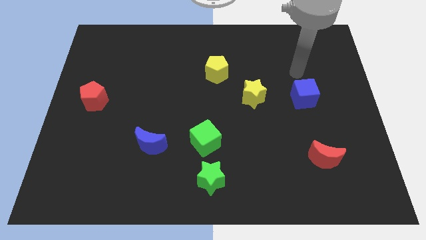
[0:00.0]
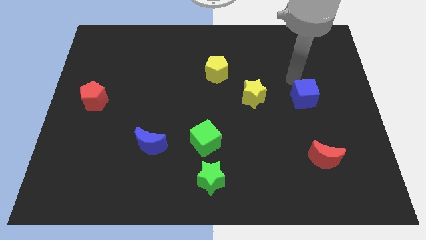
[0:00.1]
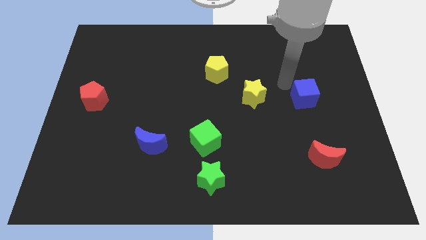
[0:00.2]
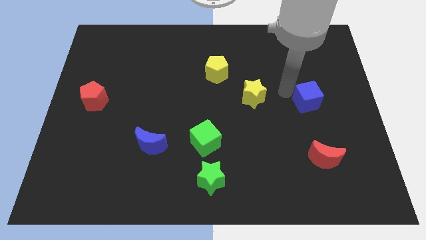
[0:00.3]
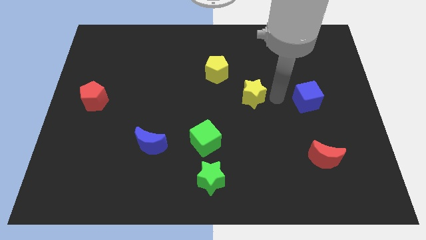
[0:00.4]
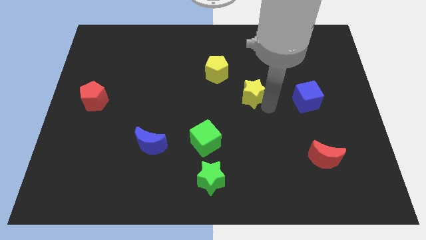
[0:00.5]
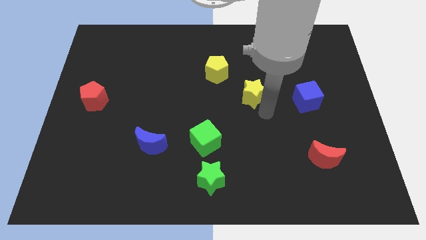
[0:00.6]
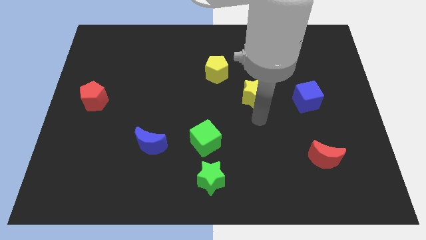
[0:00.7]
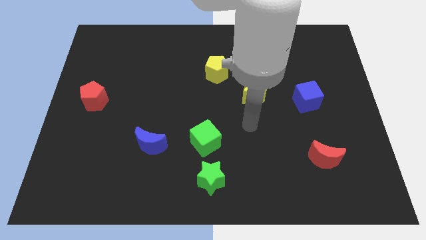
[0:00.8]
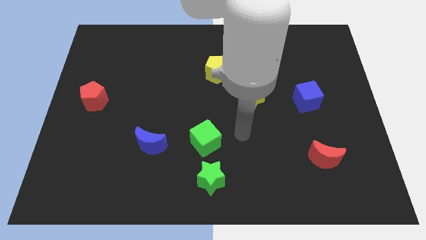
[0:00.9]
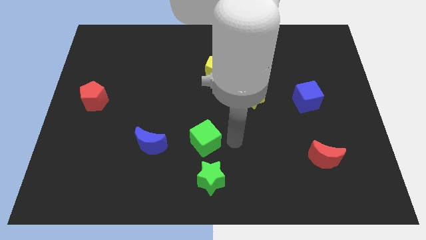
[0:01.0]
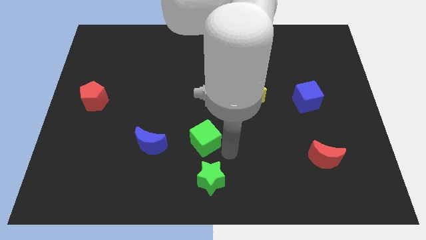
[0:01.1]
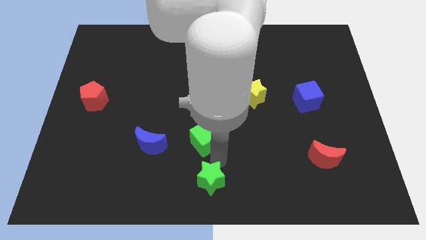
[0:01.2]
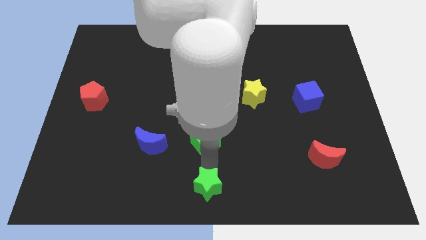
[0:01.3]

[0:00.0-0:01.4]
move the green cube away from the green star

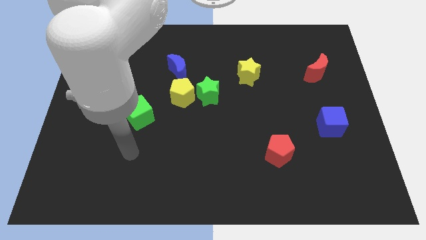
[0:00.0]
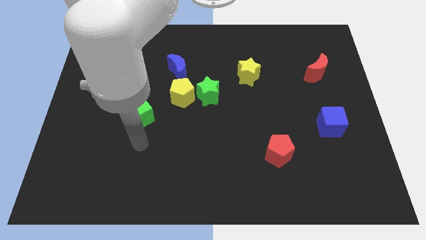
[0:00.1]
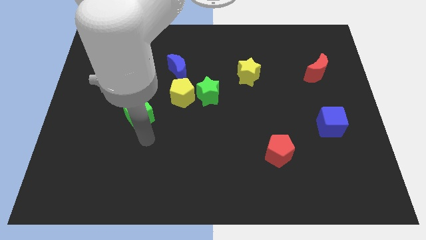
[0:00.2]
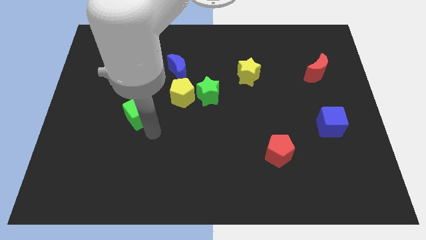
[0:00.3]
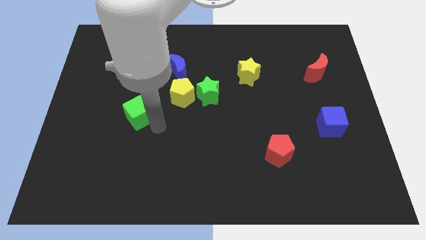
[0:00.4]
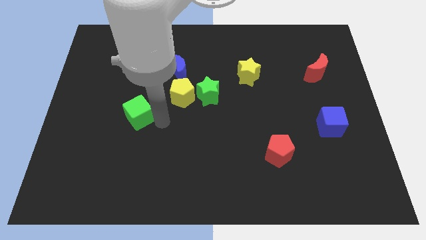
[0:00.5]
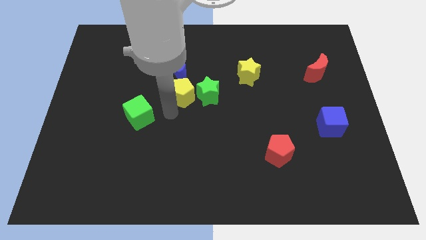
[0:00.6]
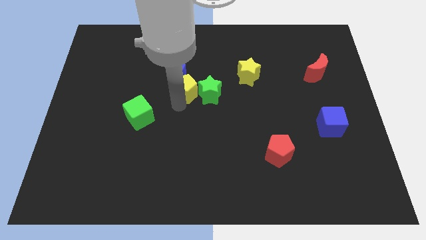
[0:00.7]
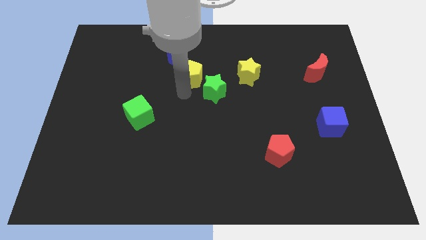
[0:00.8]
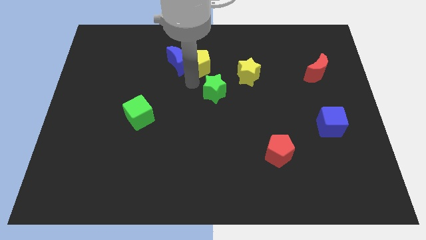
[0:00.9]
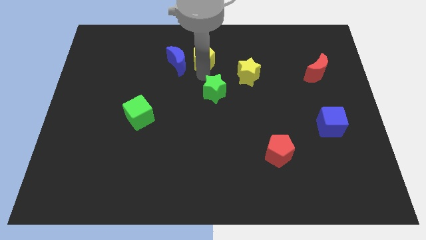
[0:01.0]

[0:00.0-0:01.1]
move the green star away from the yellow pentagon

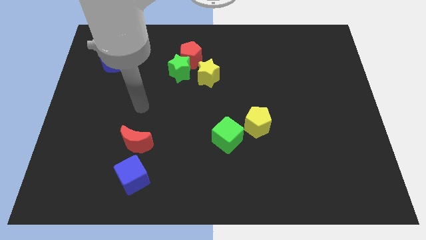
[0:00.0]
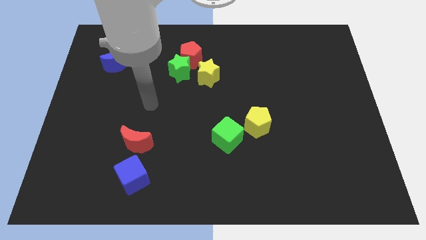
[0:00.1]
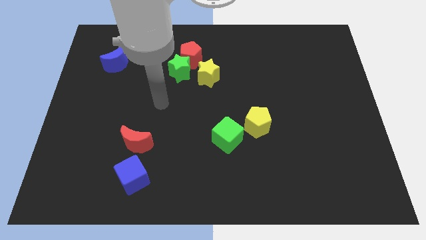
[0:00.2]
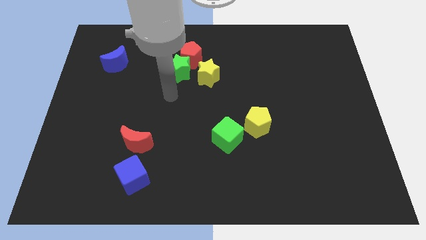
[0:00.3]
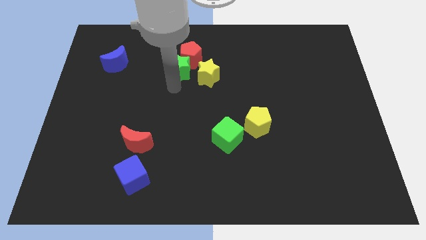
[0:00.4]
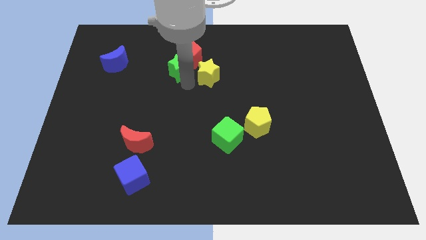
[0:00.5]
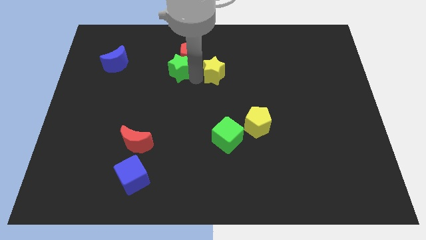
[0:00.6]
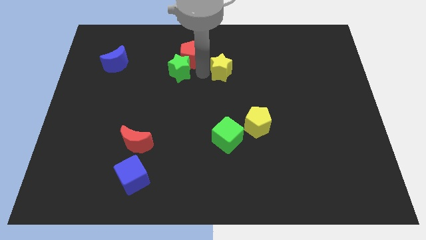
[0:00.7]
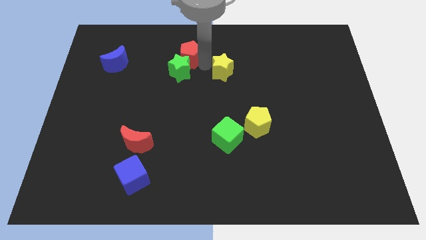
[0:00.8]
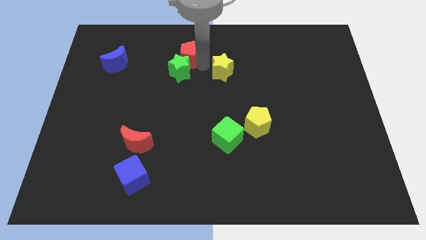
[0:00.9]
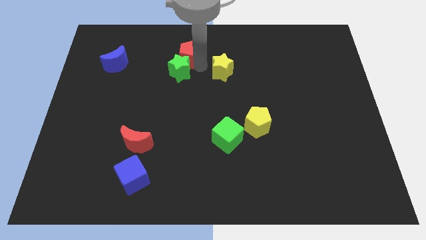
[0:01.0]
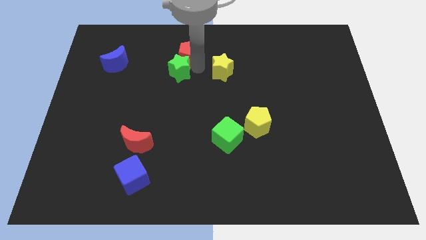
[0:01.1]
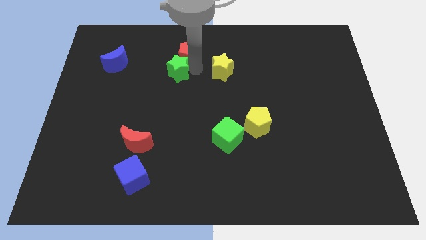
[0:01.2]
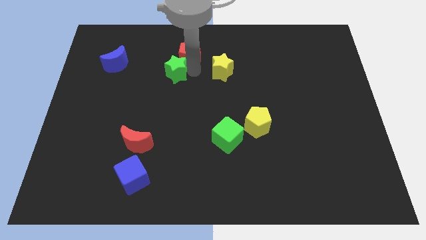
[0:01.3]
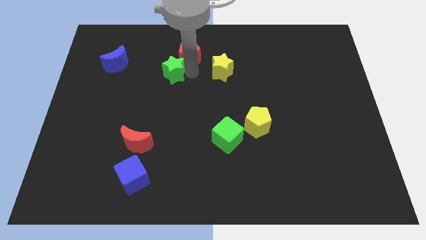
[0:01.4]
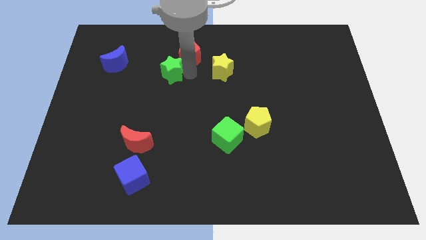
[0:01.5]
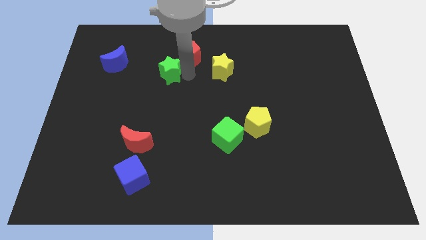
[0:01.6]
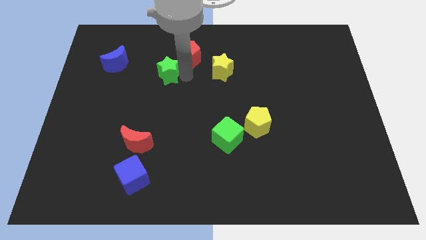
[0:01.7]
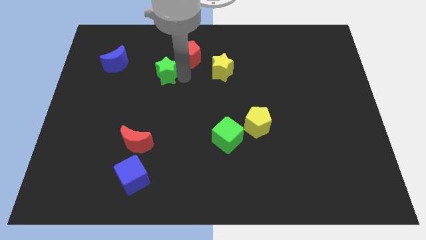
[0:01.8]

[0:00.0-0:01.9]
move the green star away from the red pentagon and yellow star

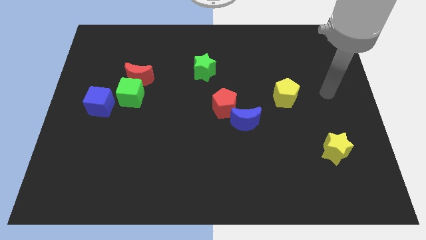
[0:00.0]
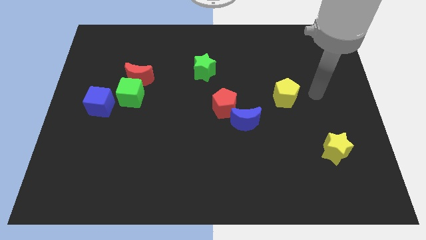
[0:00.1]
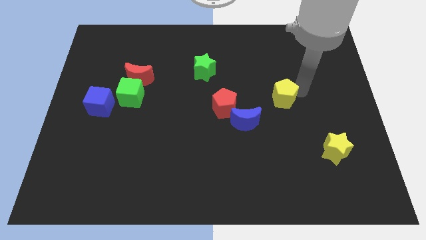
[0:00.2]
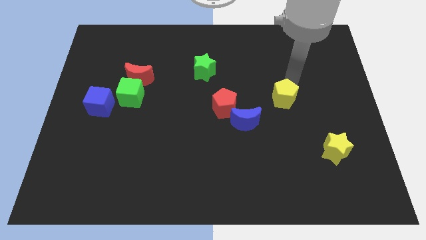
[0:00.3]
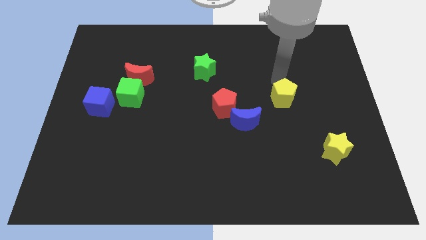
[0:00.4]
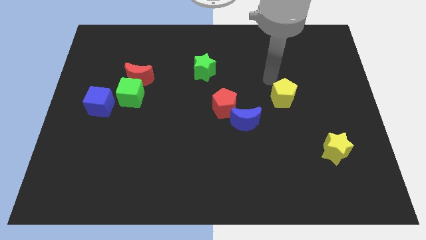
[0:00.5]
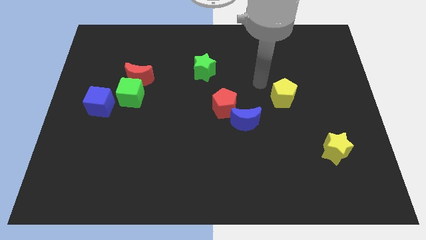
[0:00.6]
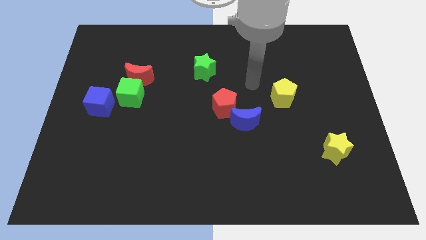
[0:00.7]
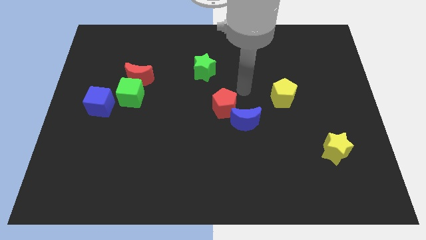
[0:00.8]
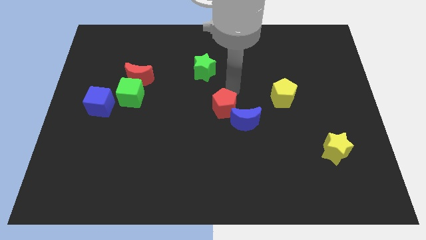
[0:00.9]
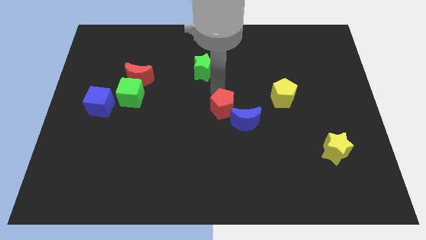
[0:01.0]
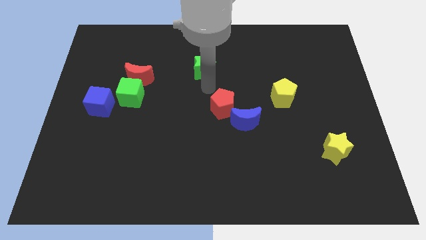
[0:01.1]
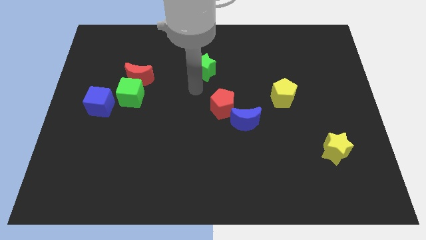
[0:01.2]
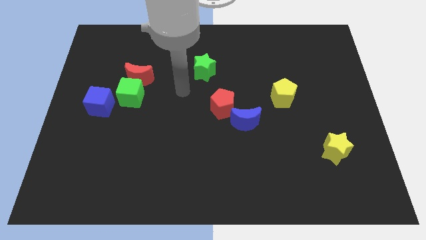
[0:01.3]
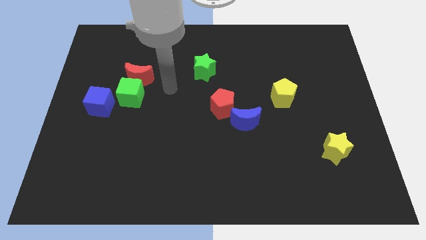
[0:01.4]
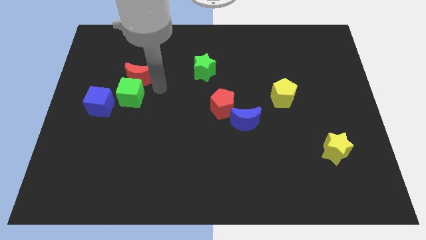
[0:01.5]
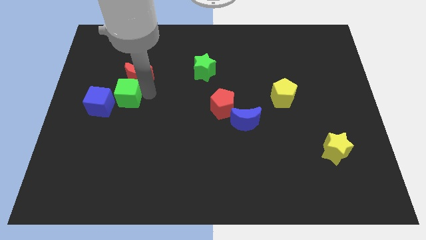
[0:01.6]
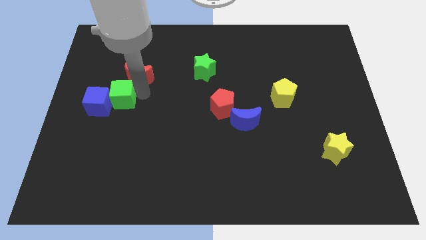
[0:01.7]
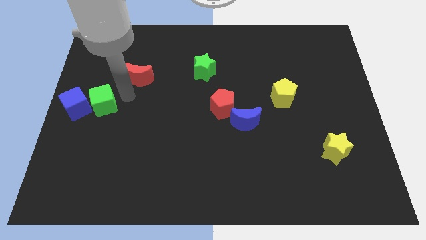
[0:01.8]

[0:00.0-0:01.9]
pull the red moon apart from the green cube

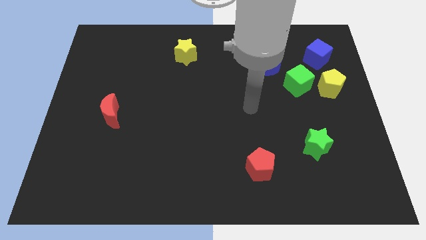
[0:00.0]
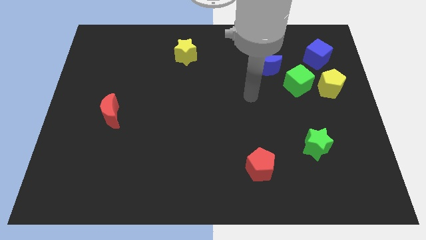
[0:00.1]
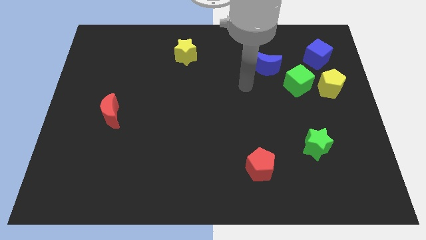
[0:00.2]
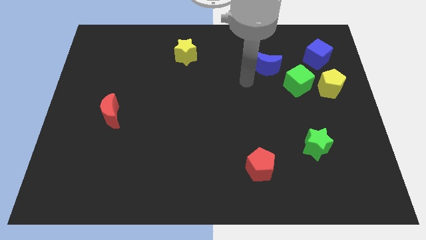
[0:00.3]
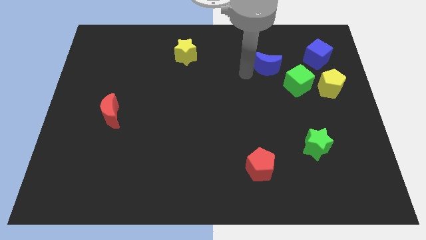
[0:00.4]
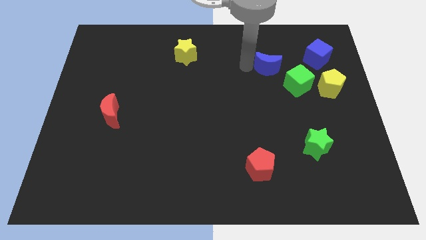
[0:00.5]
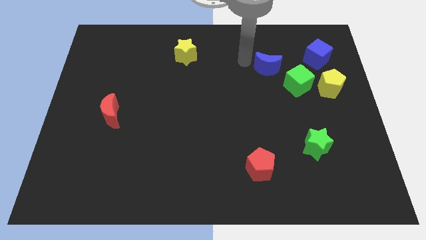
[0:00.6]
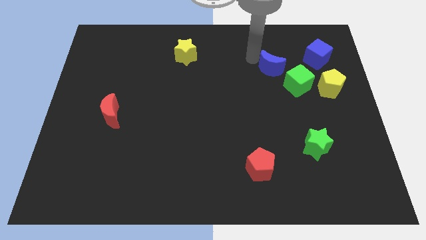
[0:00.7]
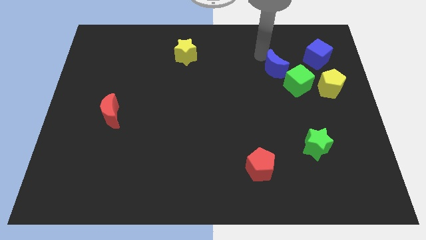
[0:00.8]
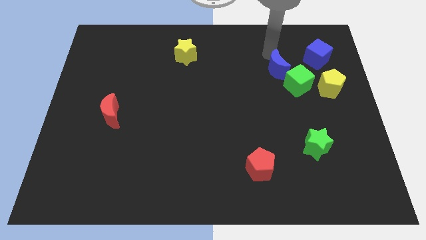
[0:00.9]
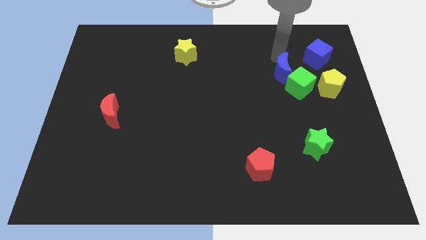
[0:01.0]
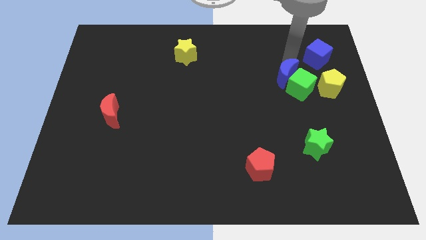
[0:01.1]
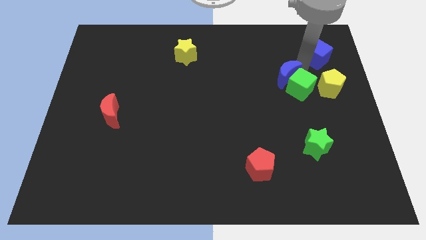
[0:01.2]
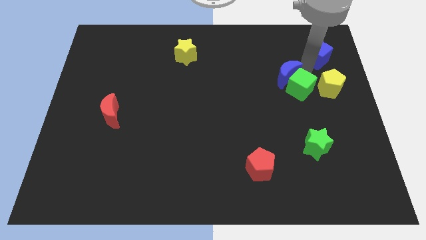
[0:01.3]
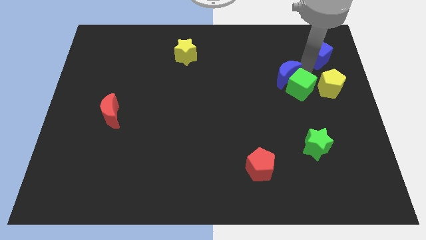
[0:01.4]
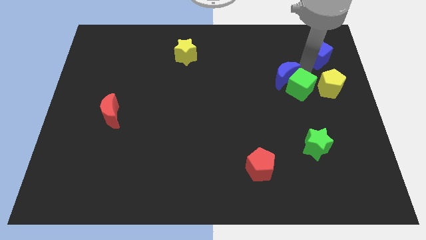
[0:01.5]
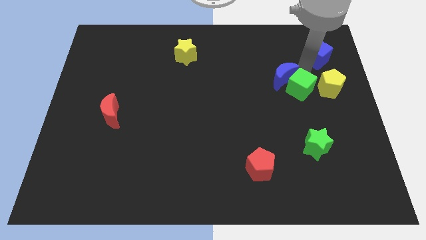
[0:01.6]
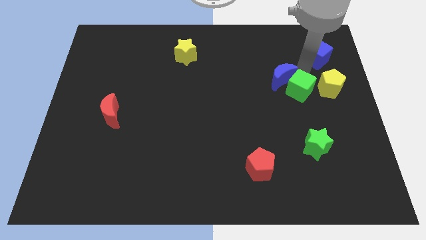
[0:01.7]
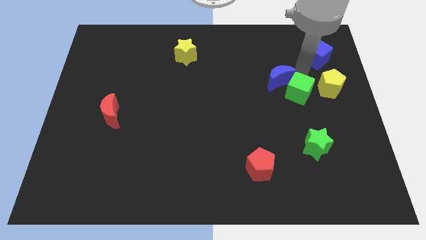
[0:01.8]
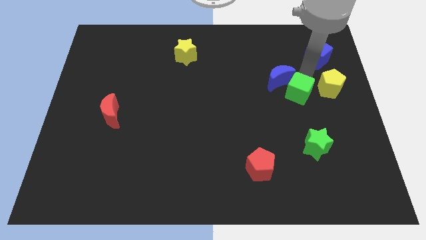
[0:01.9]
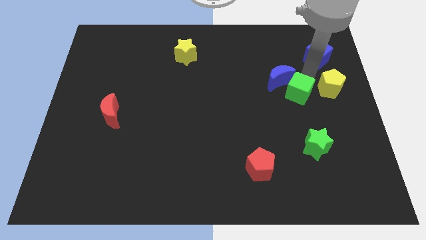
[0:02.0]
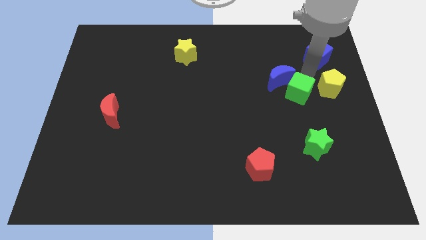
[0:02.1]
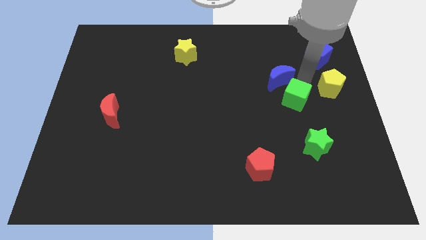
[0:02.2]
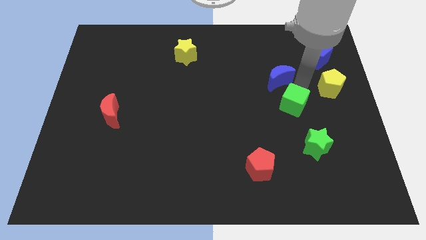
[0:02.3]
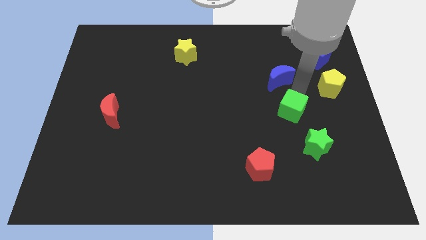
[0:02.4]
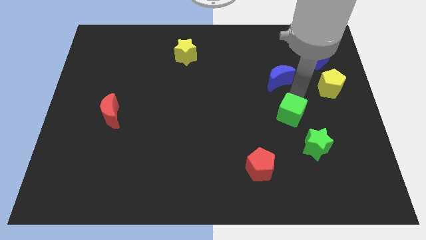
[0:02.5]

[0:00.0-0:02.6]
pull the green cube apart from the yellow pentagon and blue moon

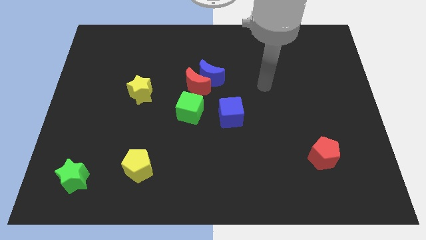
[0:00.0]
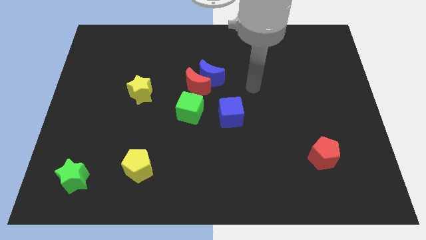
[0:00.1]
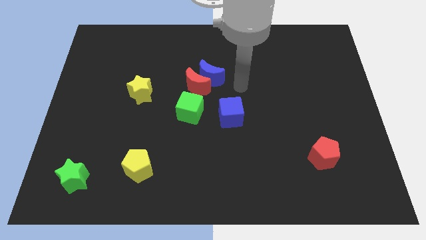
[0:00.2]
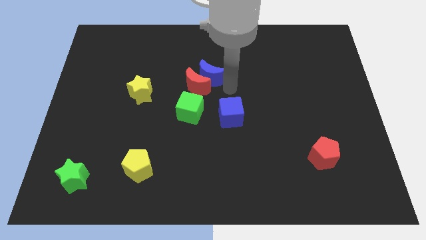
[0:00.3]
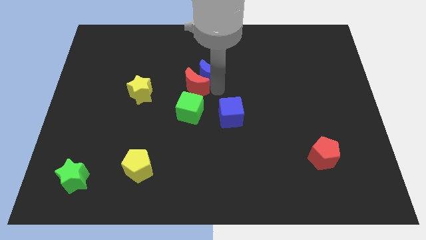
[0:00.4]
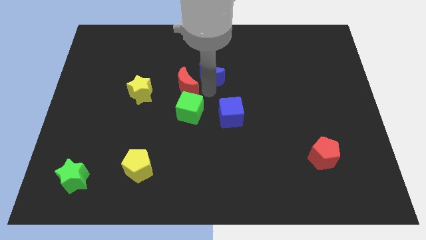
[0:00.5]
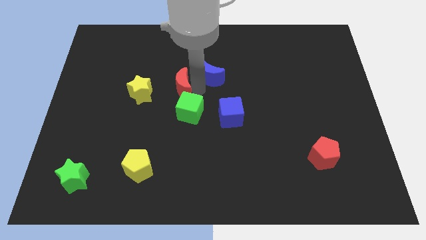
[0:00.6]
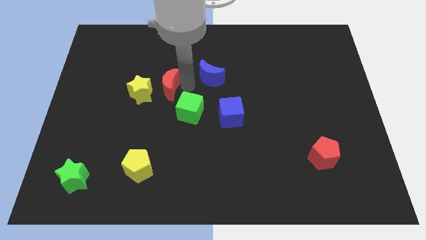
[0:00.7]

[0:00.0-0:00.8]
separate the blue moon from the red moon
